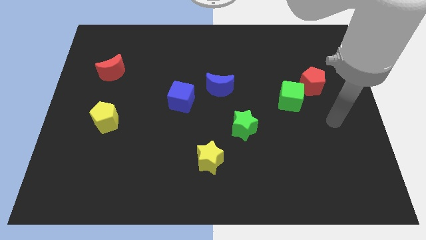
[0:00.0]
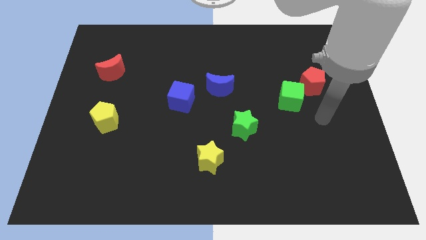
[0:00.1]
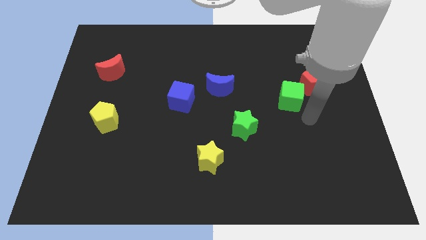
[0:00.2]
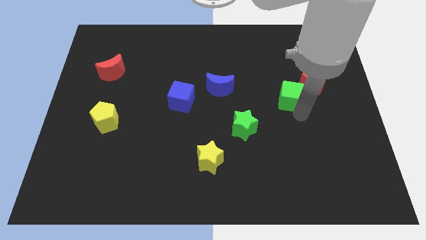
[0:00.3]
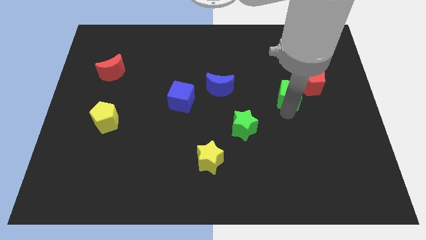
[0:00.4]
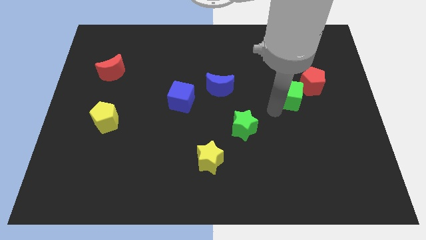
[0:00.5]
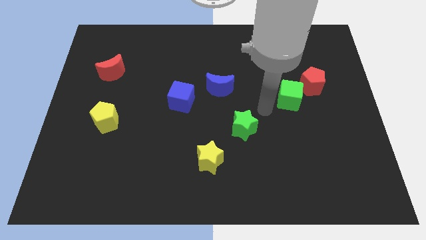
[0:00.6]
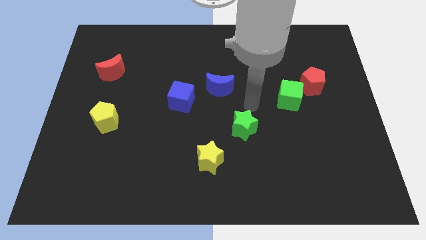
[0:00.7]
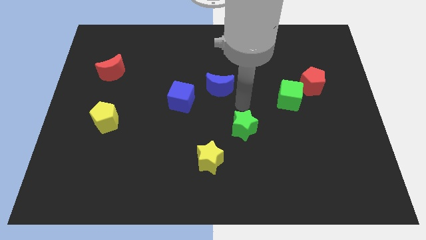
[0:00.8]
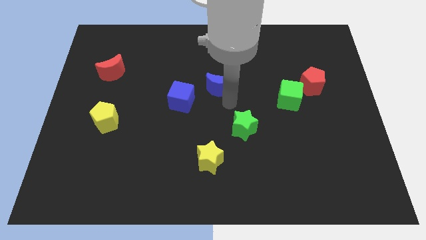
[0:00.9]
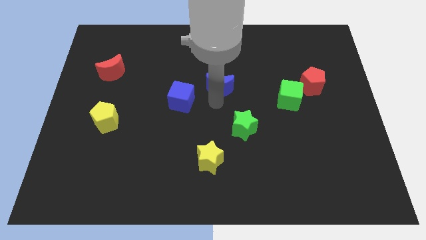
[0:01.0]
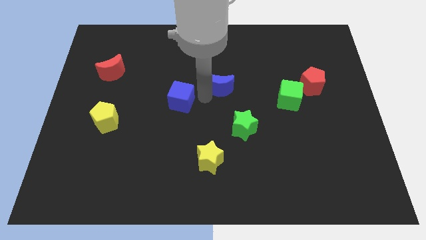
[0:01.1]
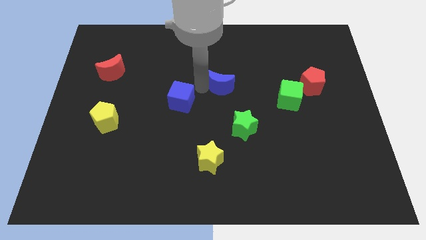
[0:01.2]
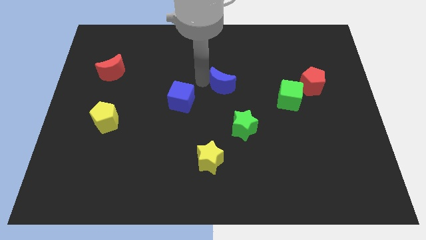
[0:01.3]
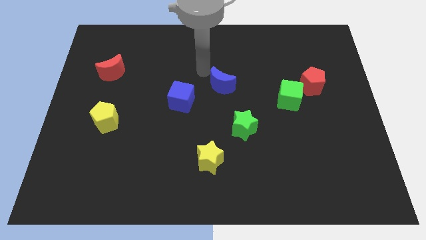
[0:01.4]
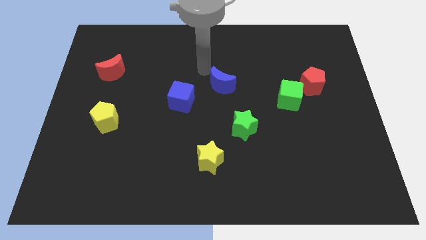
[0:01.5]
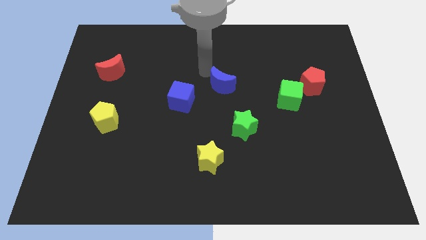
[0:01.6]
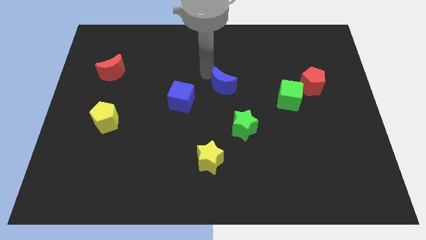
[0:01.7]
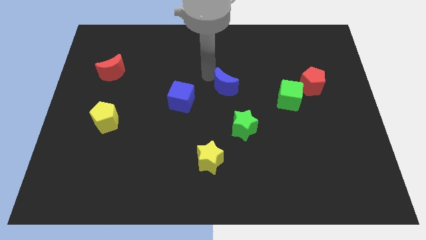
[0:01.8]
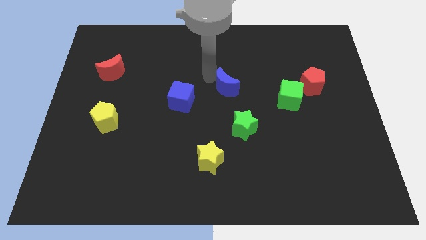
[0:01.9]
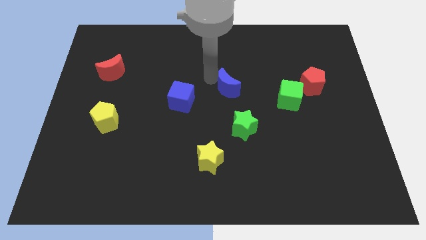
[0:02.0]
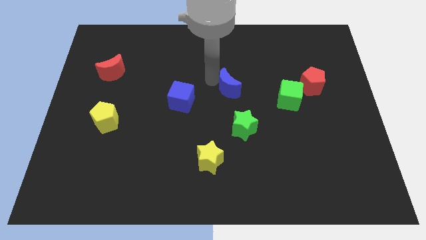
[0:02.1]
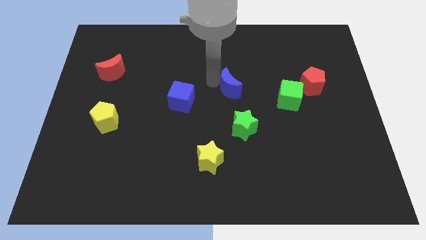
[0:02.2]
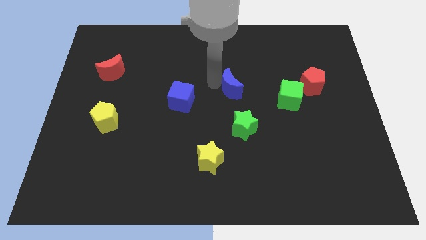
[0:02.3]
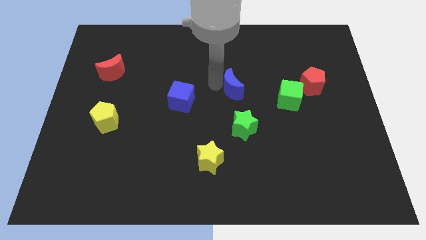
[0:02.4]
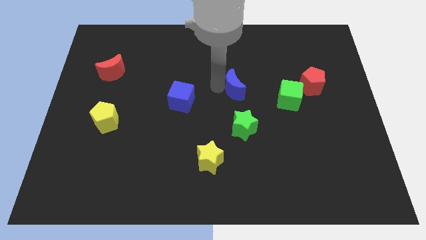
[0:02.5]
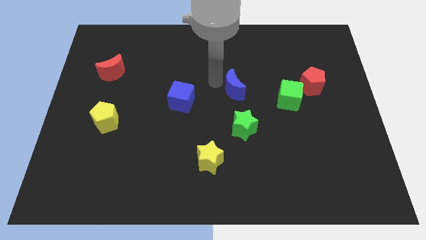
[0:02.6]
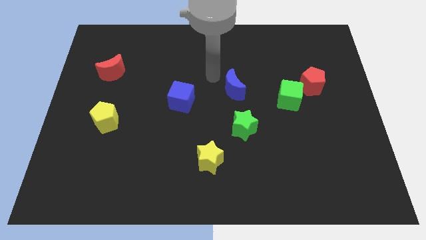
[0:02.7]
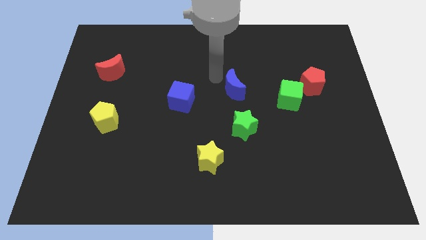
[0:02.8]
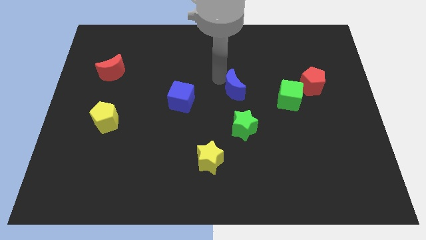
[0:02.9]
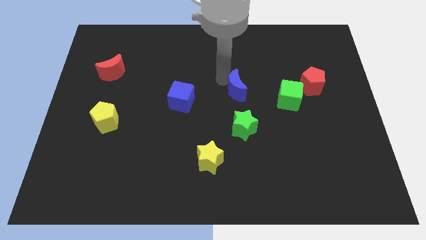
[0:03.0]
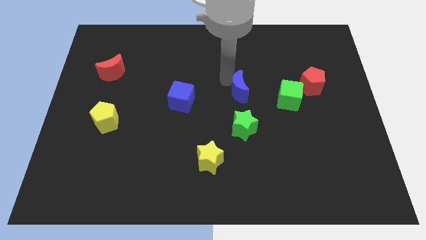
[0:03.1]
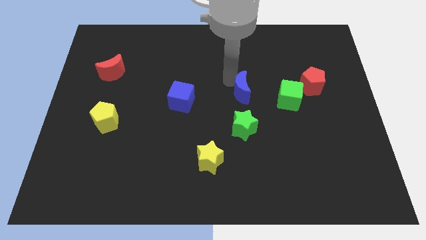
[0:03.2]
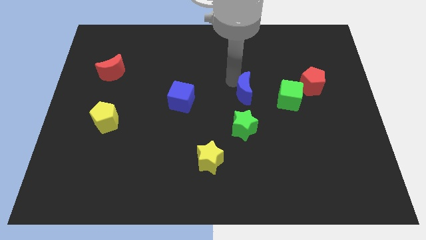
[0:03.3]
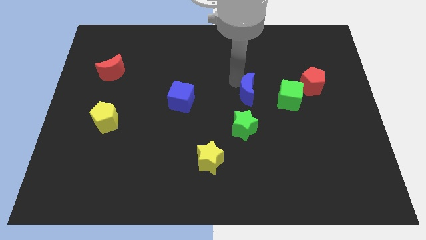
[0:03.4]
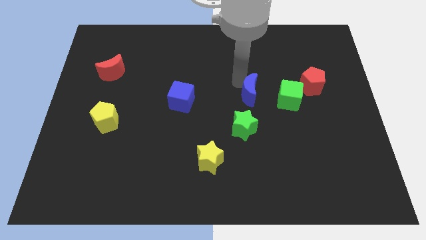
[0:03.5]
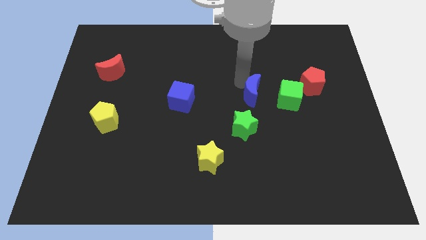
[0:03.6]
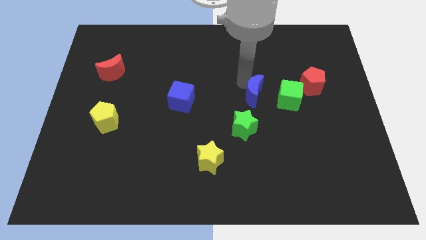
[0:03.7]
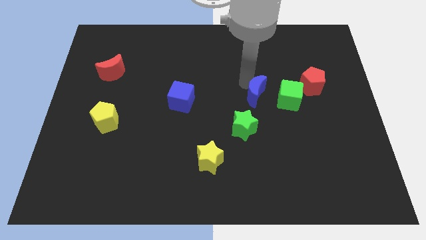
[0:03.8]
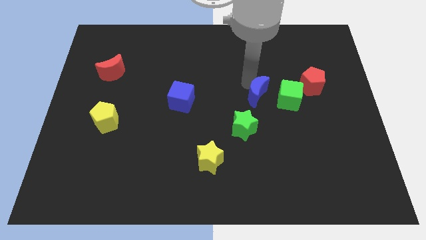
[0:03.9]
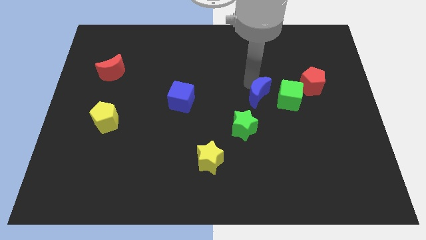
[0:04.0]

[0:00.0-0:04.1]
move the blue moon down and right diagonally a bit

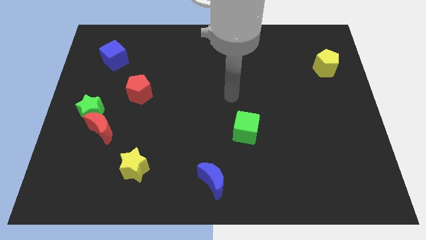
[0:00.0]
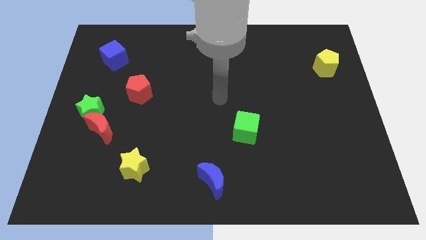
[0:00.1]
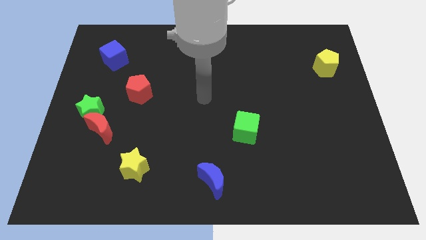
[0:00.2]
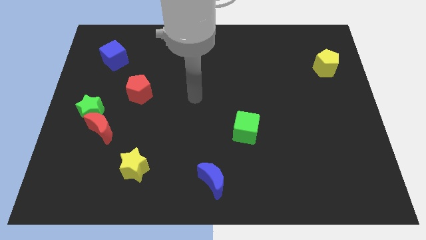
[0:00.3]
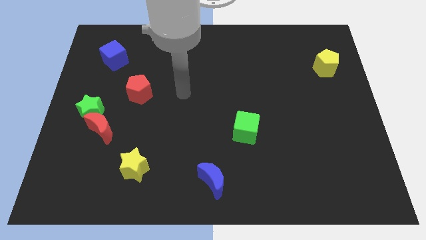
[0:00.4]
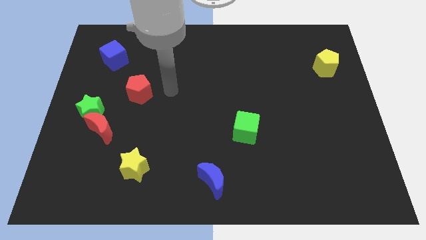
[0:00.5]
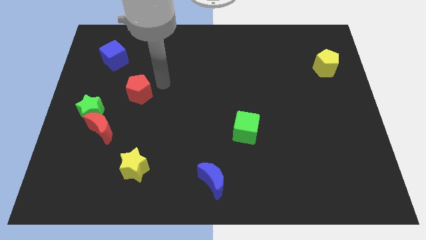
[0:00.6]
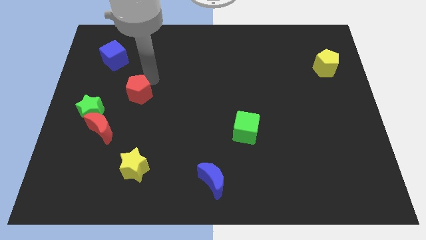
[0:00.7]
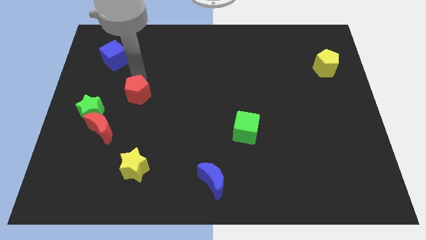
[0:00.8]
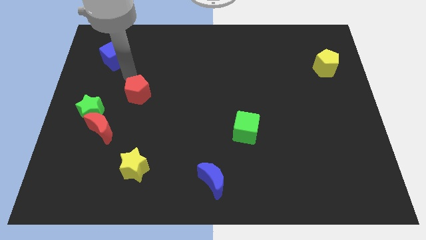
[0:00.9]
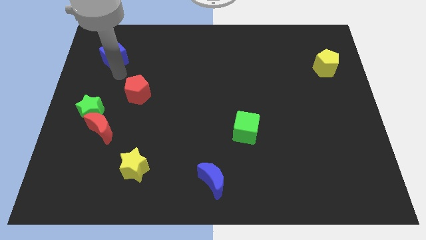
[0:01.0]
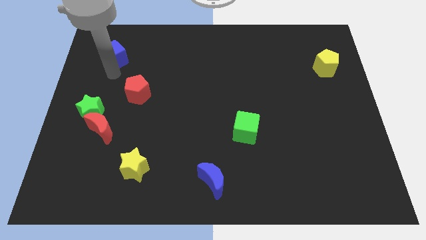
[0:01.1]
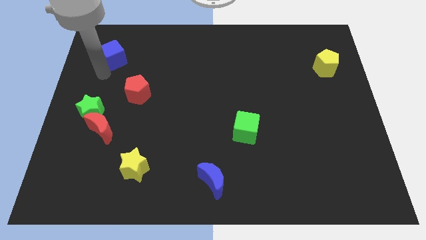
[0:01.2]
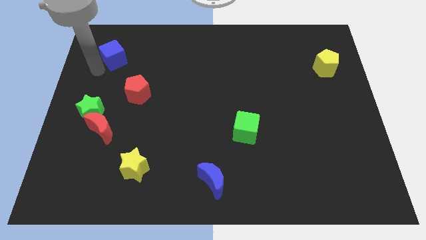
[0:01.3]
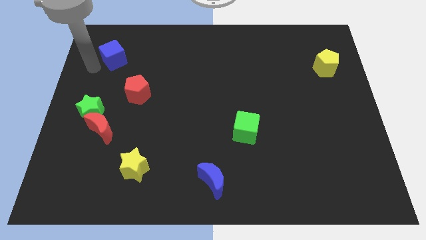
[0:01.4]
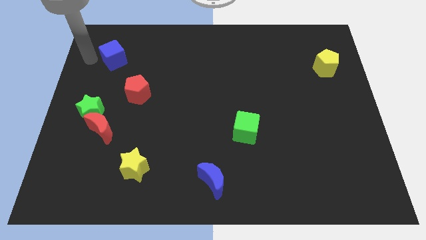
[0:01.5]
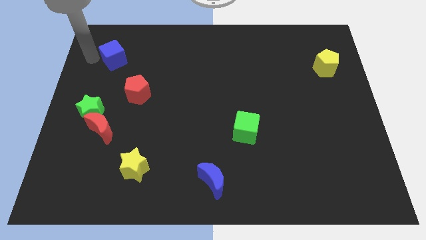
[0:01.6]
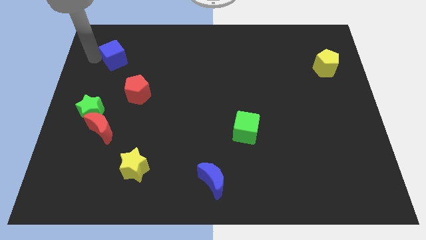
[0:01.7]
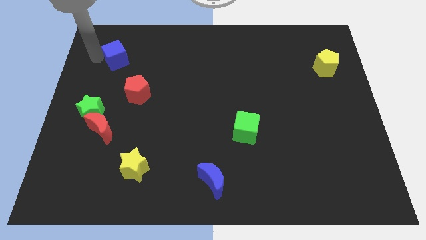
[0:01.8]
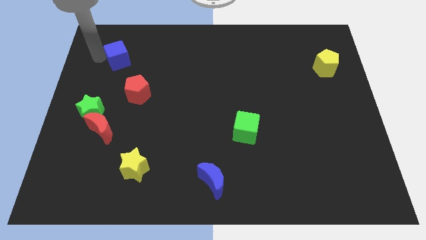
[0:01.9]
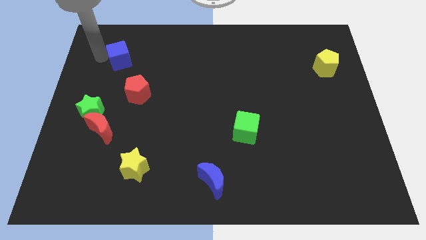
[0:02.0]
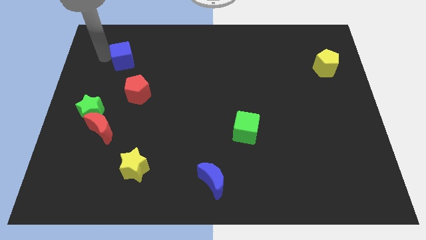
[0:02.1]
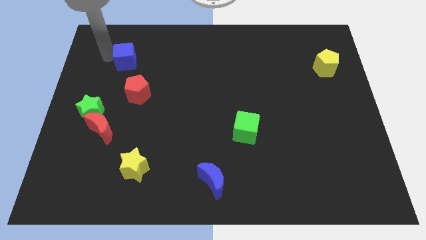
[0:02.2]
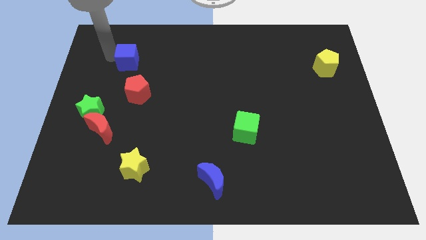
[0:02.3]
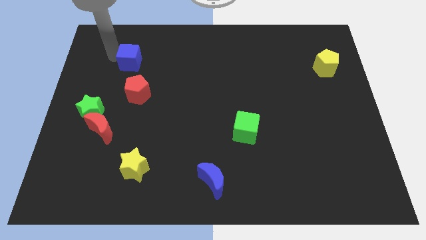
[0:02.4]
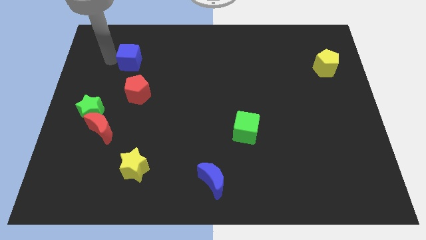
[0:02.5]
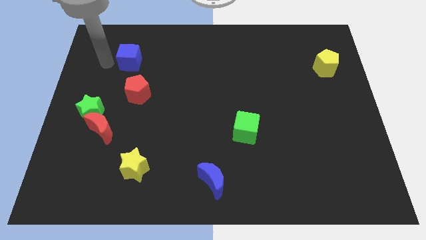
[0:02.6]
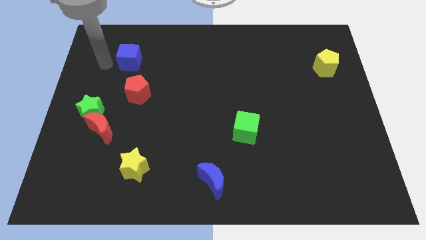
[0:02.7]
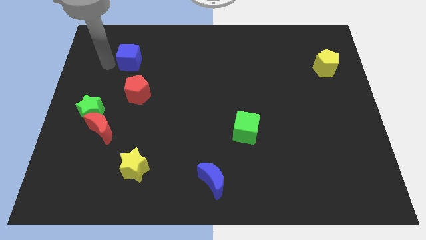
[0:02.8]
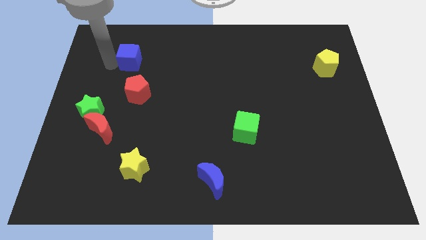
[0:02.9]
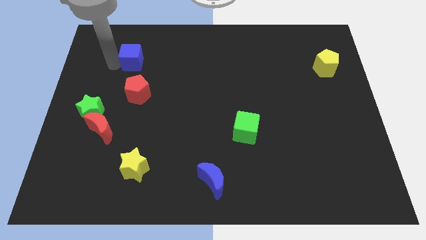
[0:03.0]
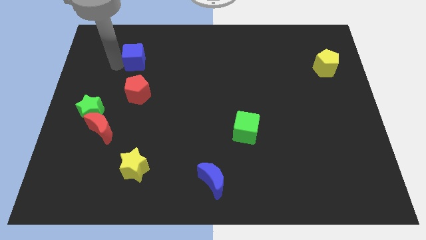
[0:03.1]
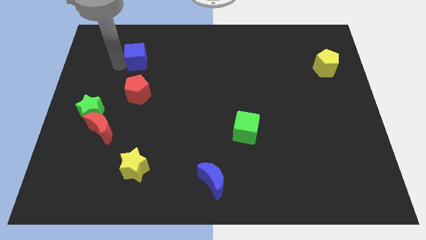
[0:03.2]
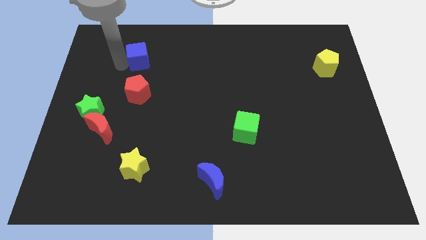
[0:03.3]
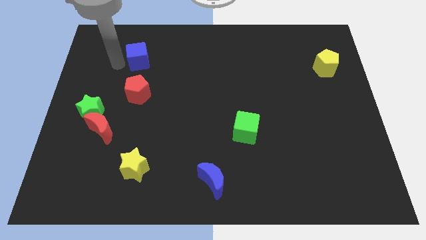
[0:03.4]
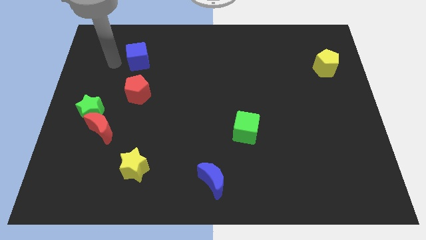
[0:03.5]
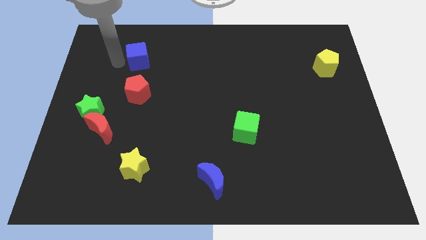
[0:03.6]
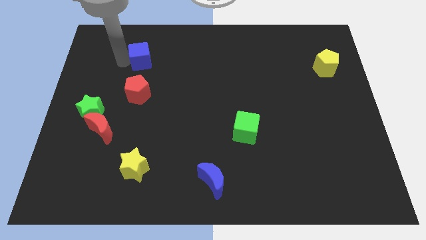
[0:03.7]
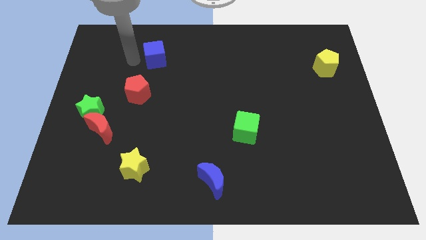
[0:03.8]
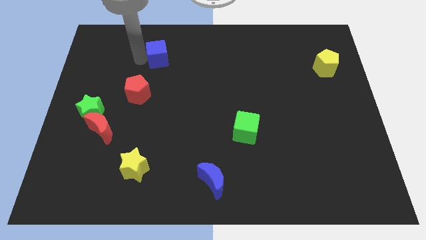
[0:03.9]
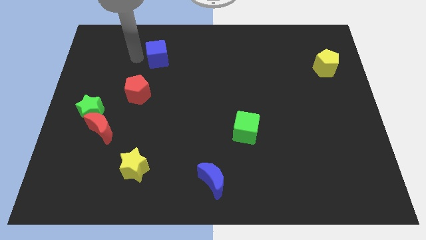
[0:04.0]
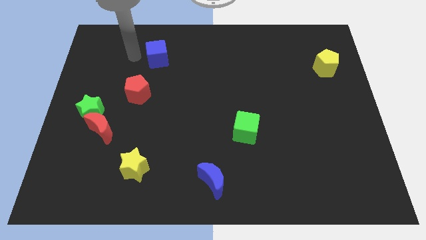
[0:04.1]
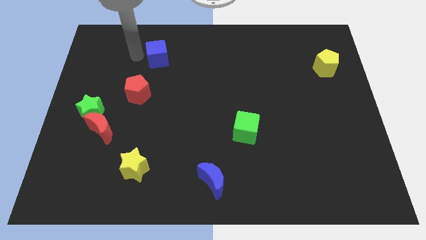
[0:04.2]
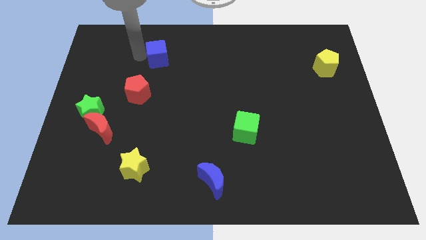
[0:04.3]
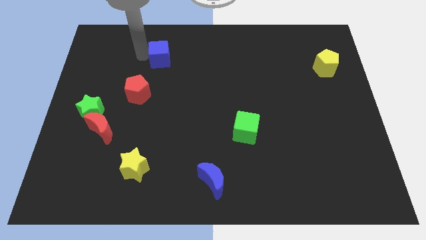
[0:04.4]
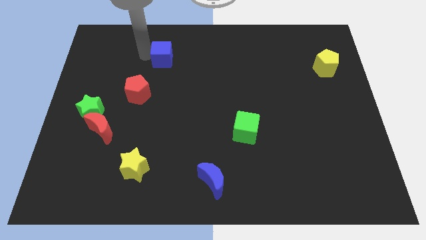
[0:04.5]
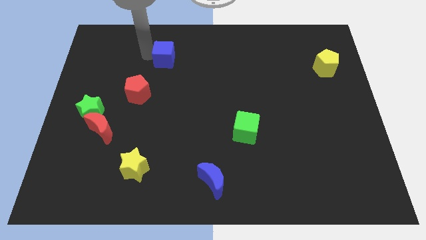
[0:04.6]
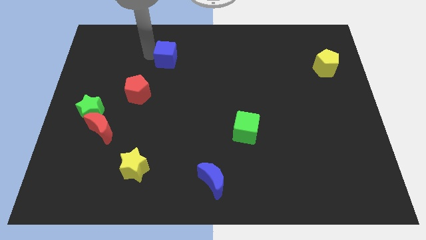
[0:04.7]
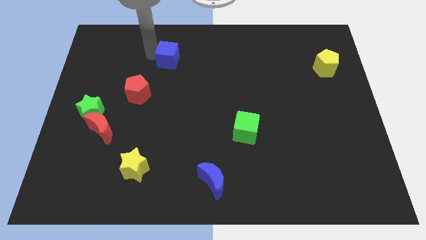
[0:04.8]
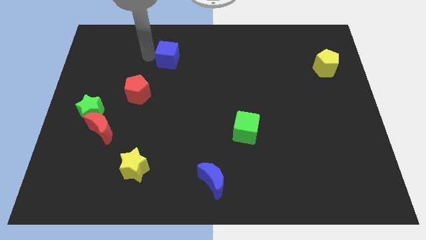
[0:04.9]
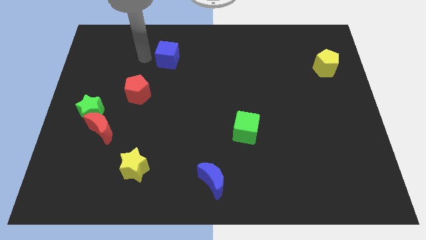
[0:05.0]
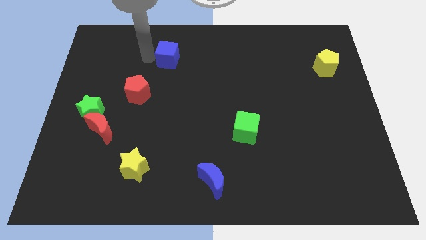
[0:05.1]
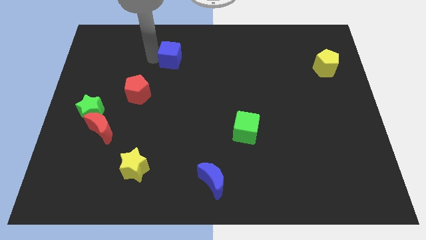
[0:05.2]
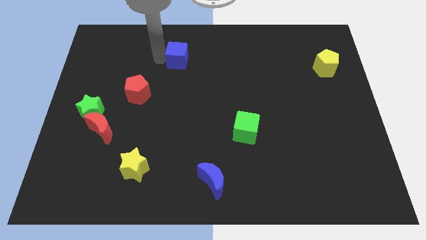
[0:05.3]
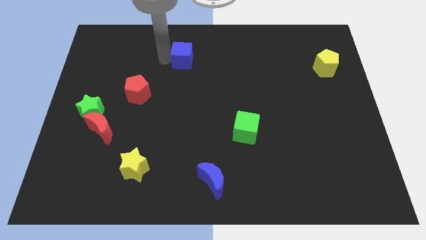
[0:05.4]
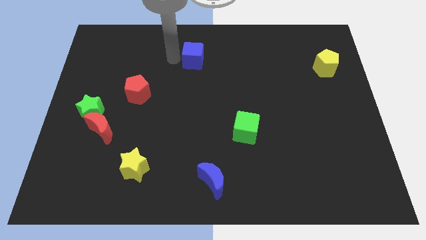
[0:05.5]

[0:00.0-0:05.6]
push the blue cube to the right
